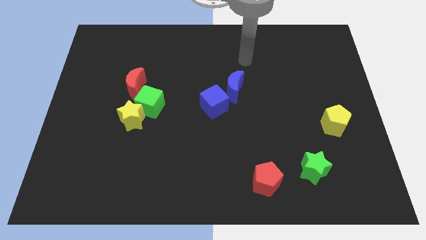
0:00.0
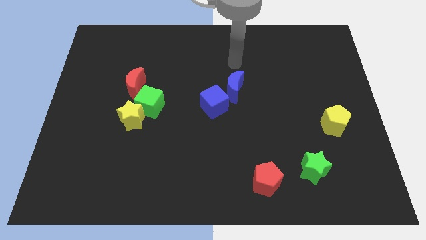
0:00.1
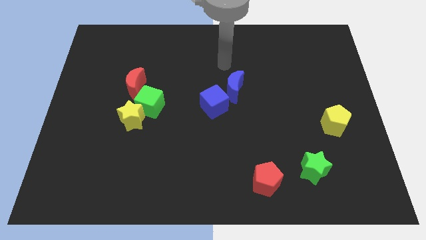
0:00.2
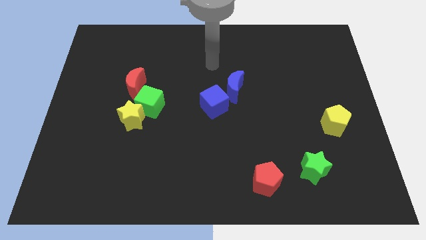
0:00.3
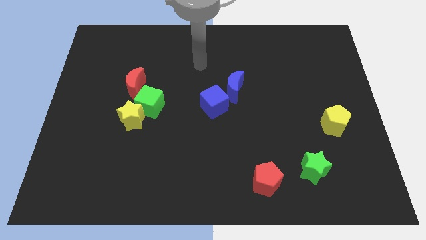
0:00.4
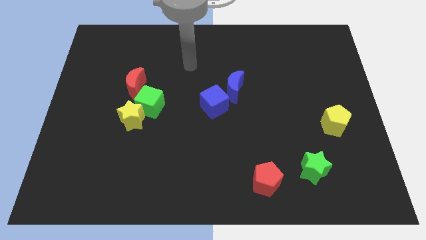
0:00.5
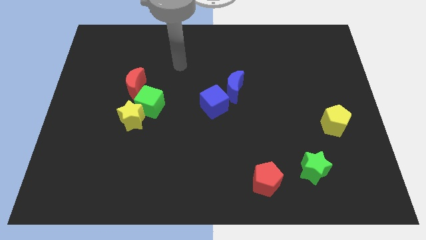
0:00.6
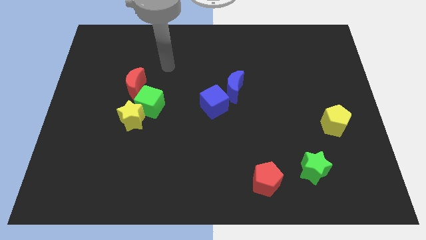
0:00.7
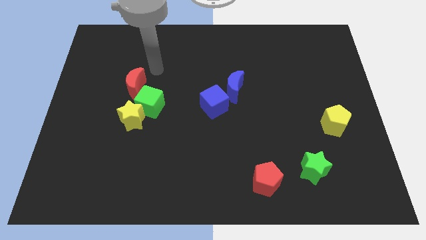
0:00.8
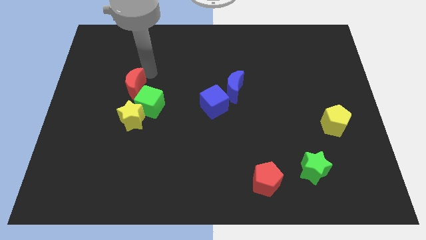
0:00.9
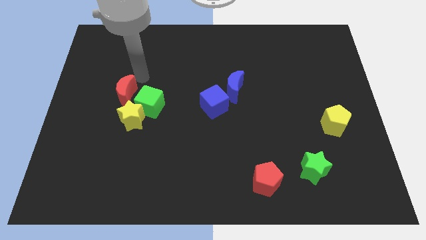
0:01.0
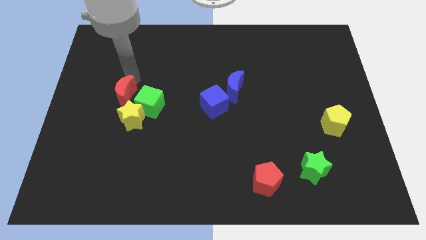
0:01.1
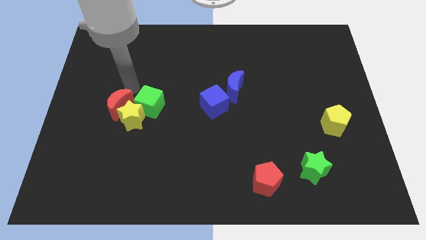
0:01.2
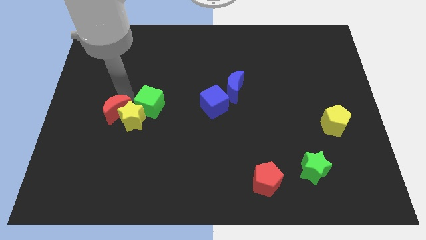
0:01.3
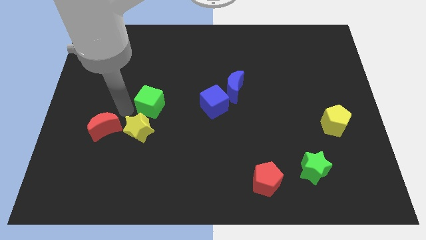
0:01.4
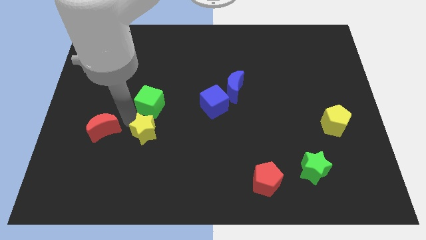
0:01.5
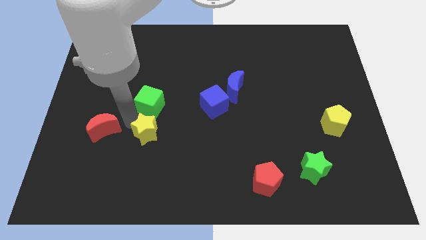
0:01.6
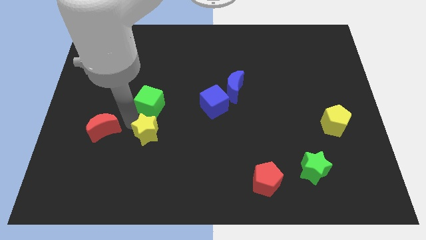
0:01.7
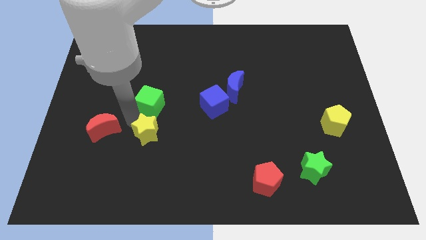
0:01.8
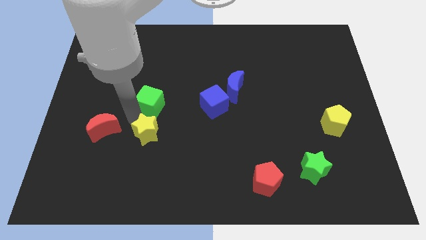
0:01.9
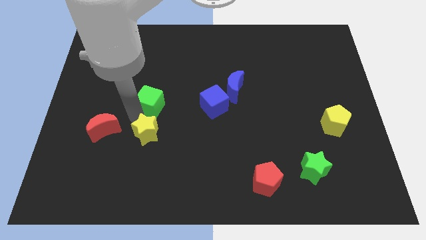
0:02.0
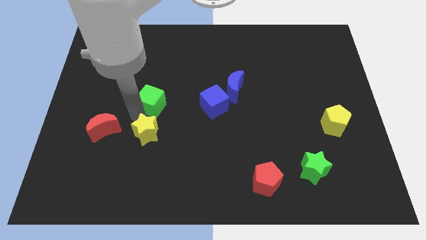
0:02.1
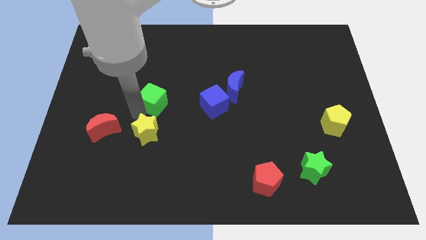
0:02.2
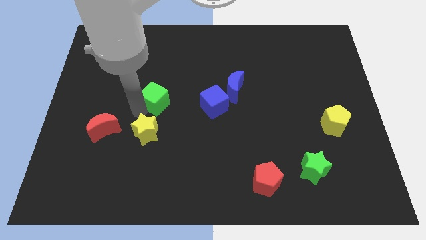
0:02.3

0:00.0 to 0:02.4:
move the green cube away from the yellow star and red moon

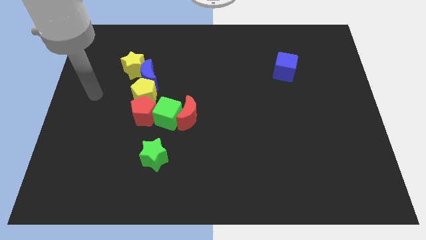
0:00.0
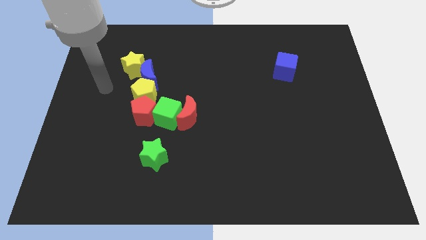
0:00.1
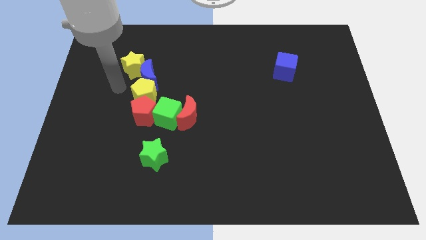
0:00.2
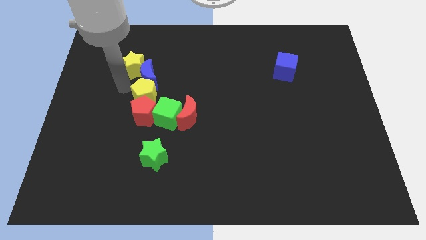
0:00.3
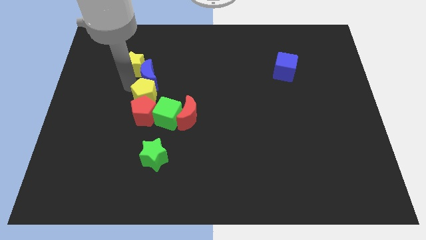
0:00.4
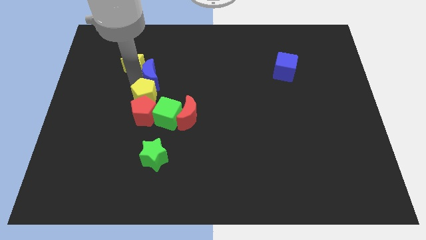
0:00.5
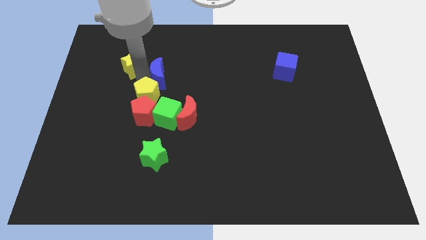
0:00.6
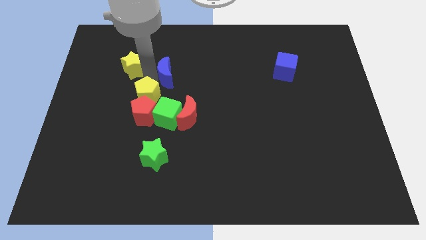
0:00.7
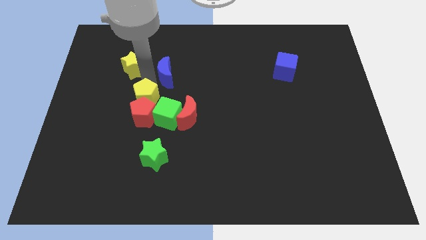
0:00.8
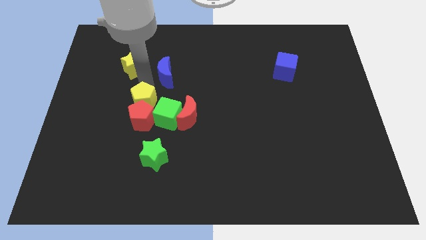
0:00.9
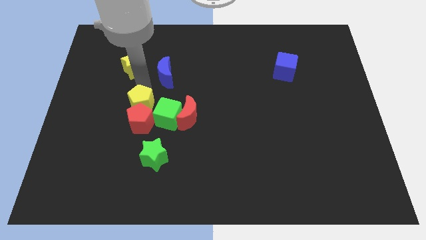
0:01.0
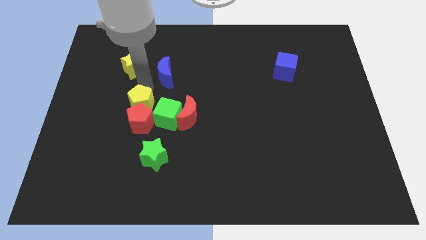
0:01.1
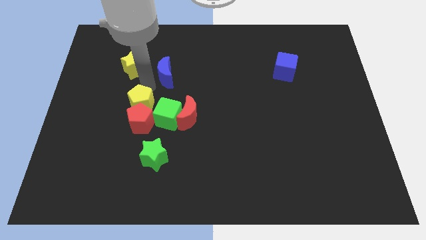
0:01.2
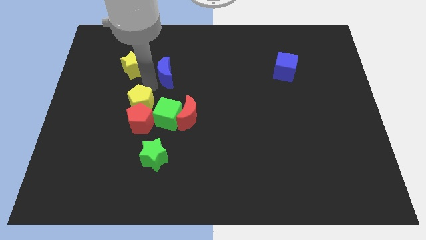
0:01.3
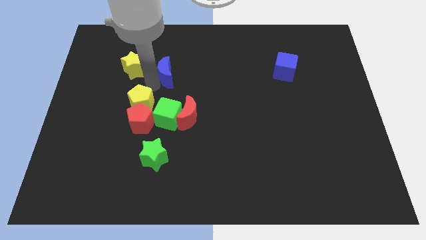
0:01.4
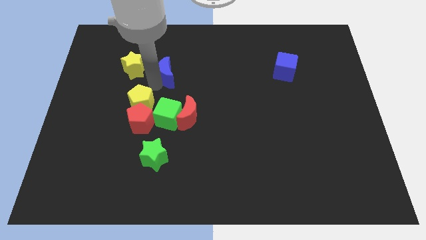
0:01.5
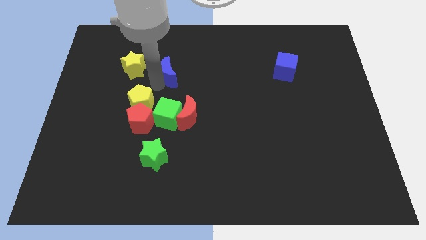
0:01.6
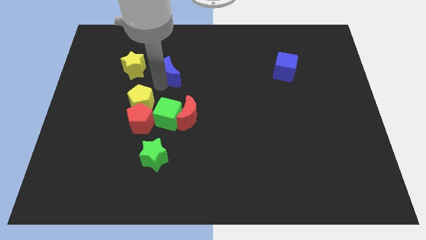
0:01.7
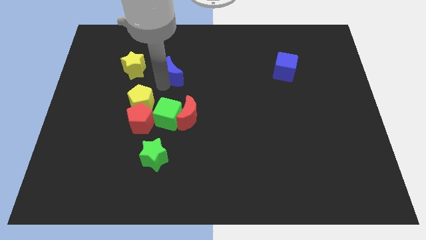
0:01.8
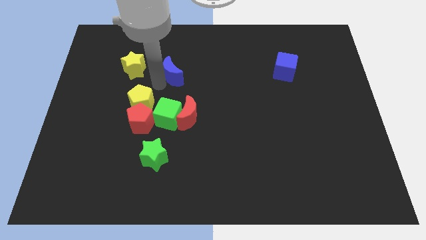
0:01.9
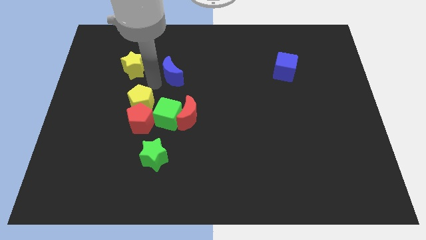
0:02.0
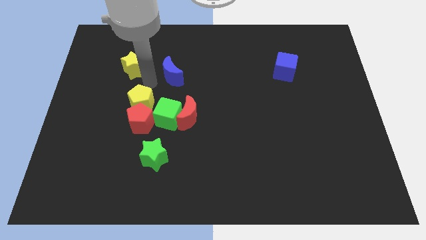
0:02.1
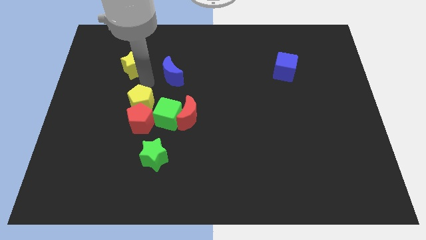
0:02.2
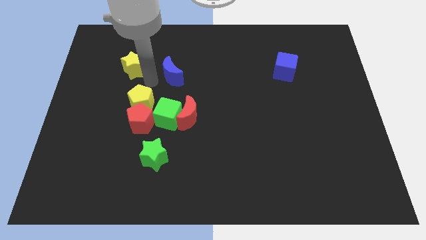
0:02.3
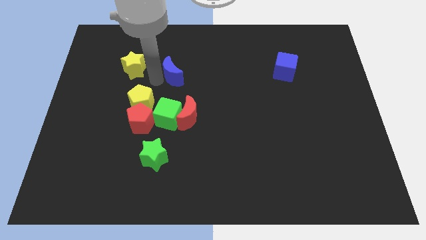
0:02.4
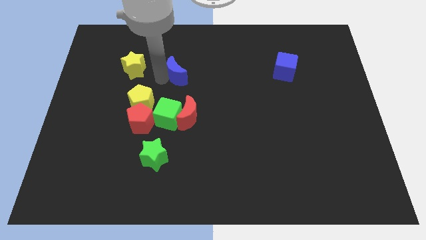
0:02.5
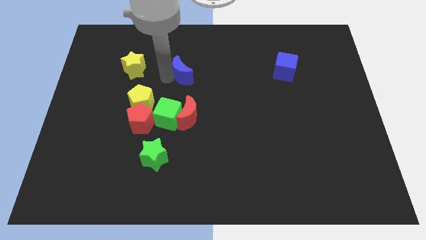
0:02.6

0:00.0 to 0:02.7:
separate the blue moon from the yellow pentagon and yellow star

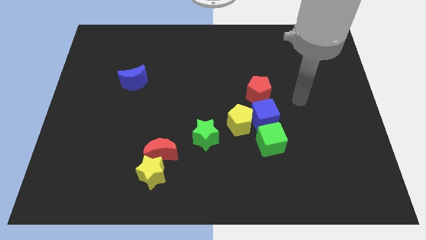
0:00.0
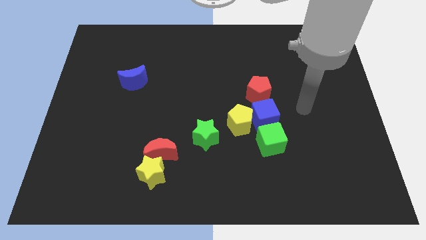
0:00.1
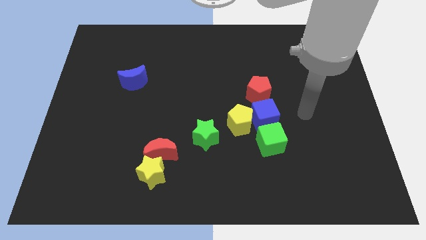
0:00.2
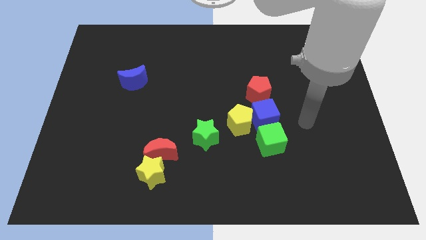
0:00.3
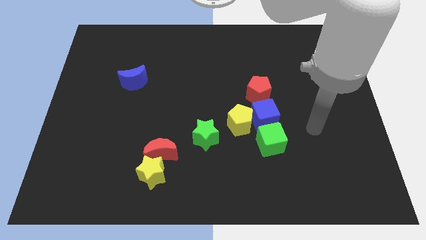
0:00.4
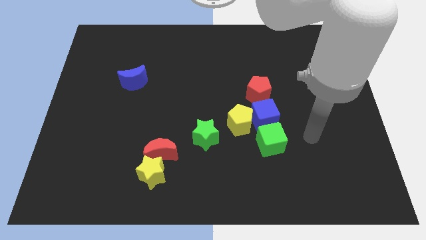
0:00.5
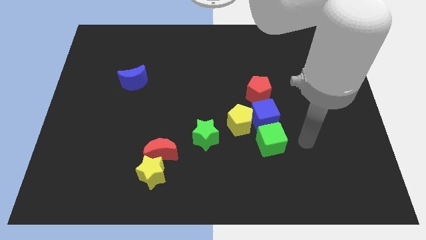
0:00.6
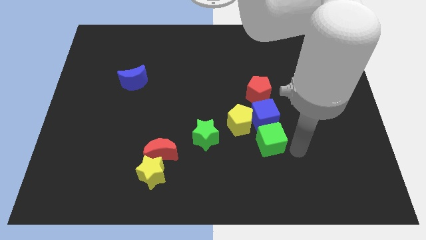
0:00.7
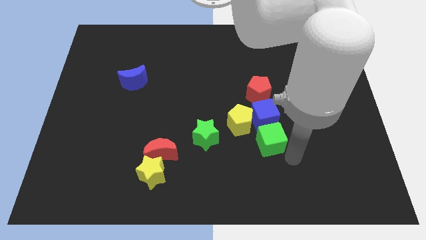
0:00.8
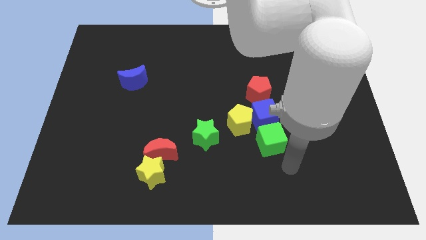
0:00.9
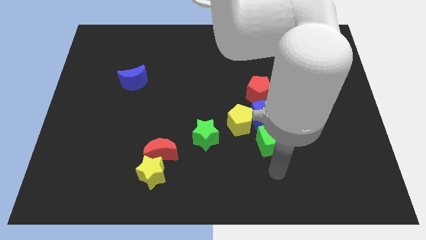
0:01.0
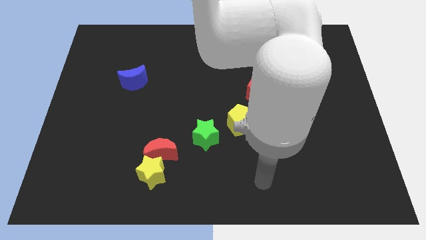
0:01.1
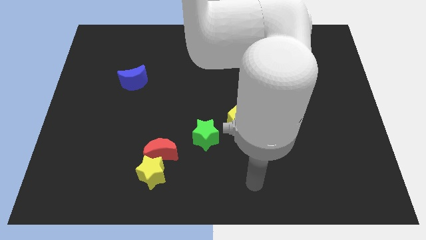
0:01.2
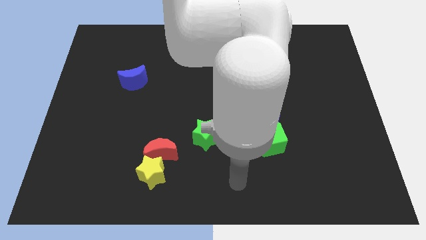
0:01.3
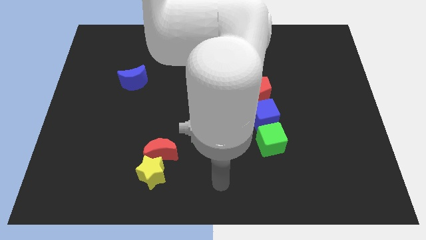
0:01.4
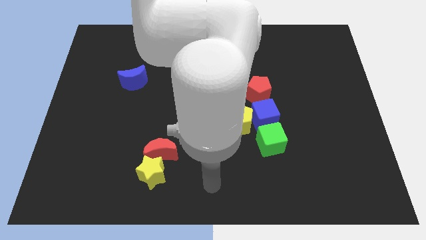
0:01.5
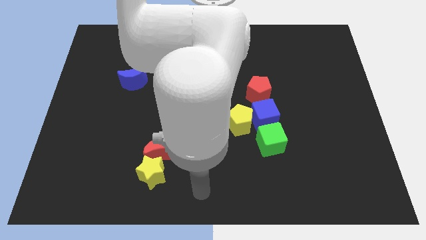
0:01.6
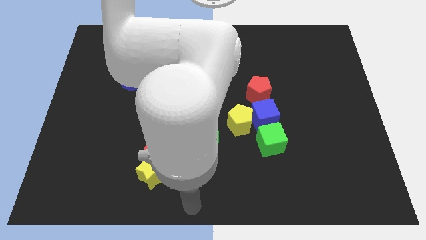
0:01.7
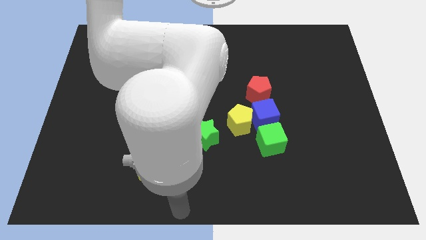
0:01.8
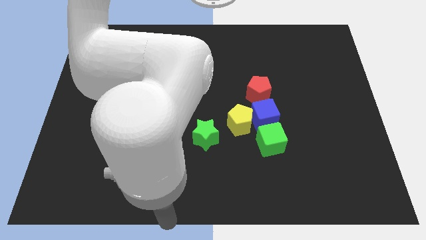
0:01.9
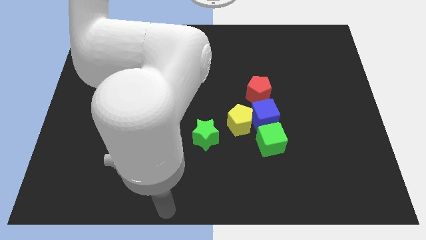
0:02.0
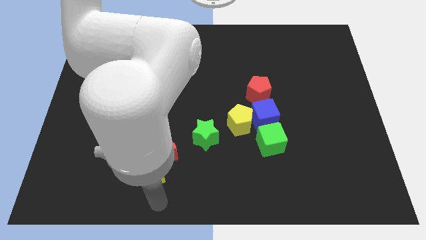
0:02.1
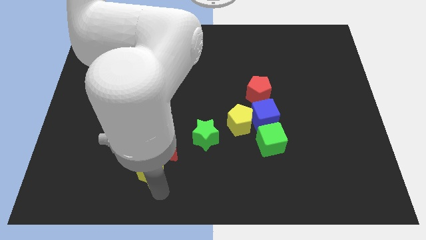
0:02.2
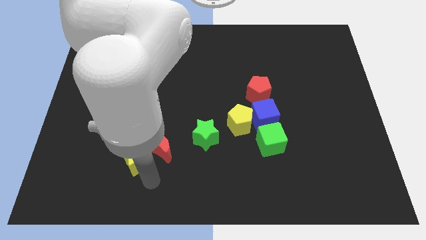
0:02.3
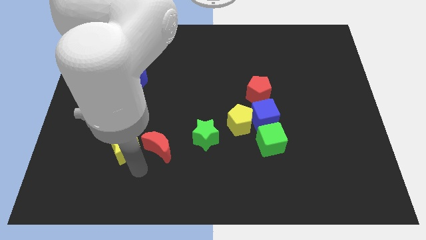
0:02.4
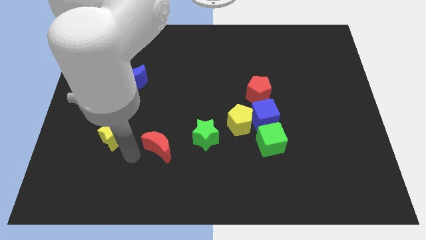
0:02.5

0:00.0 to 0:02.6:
move the red moon away from the yellow star

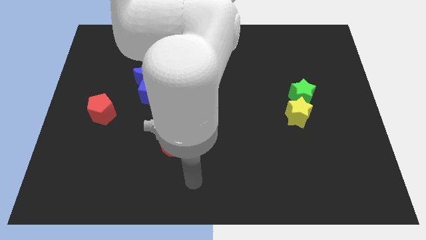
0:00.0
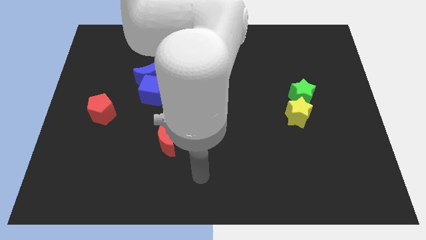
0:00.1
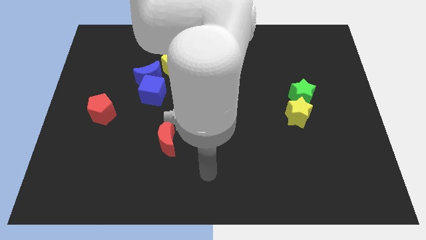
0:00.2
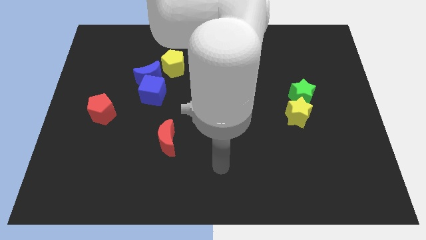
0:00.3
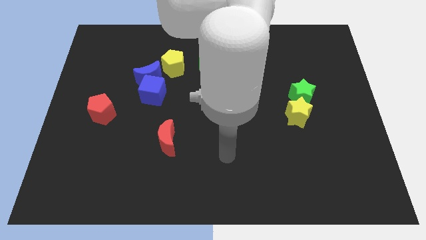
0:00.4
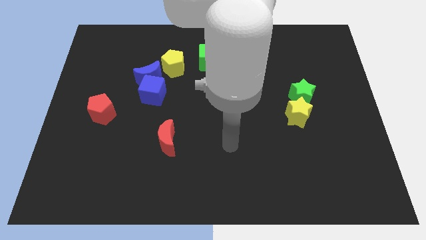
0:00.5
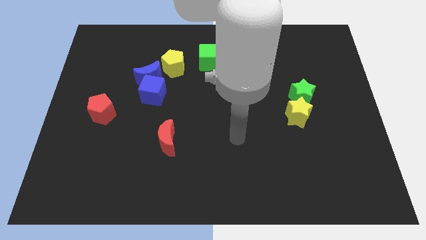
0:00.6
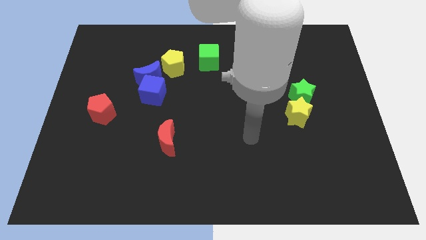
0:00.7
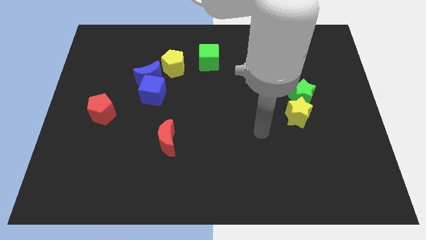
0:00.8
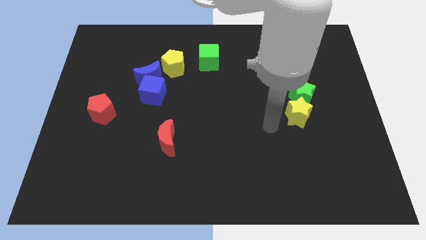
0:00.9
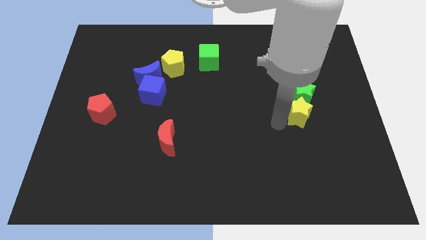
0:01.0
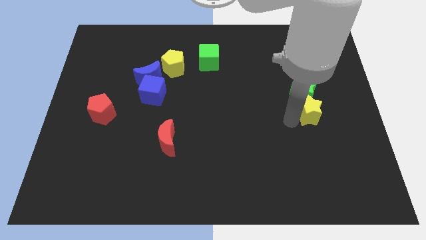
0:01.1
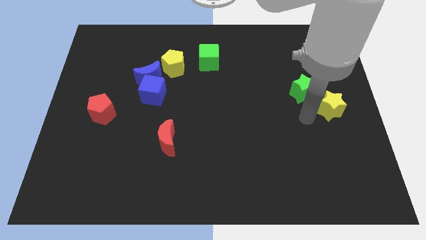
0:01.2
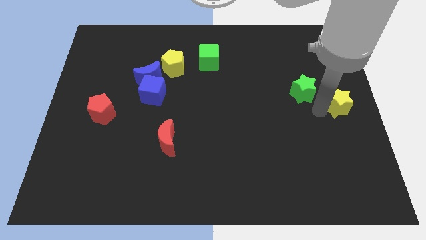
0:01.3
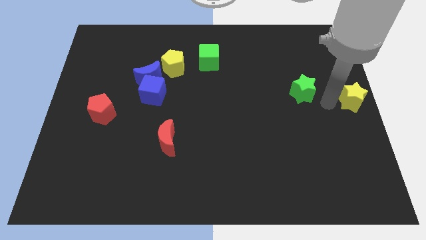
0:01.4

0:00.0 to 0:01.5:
move the green star away from the yellow star

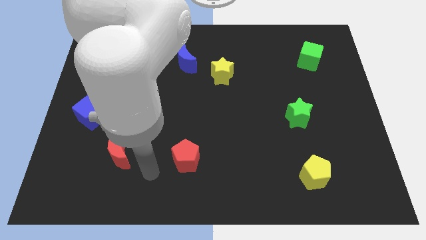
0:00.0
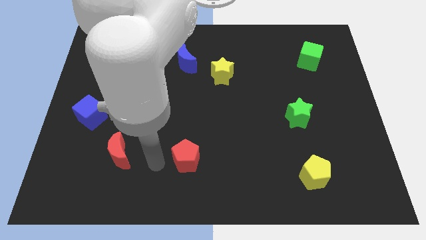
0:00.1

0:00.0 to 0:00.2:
pull the blue moon apart from the yellow star
